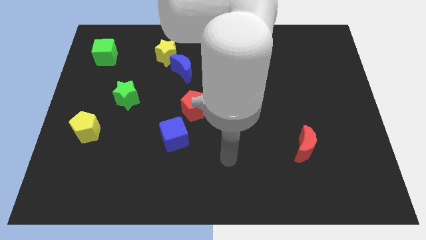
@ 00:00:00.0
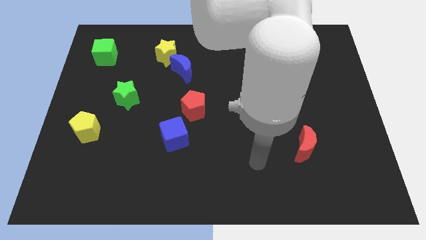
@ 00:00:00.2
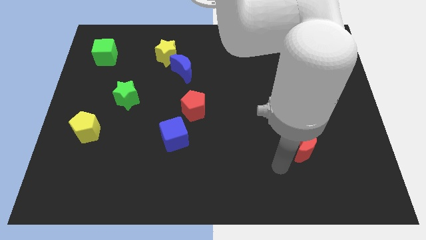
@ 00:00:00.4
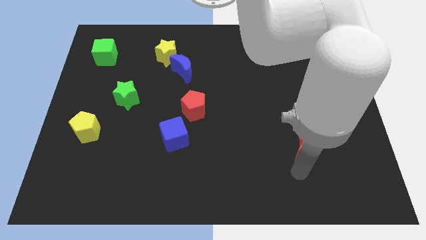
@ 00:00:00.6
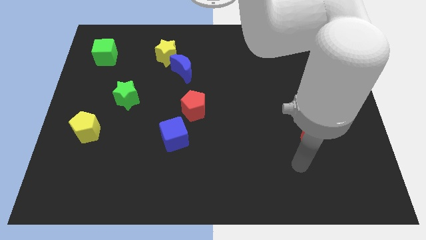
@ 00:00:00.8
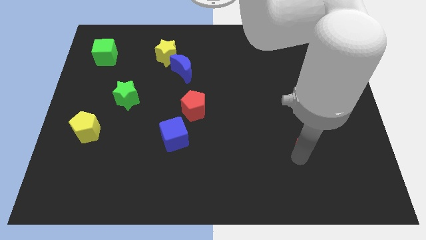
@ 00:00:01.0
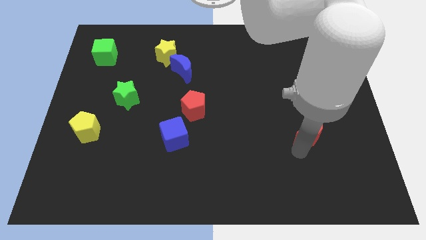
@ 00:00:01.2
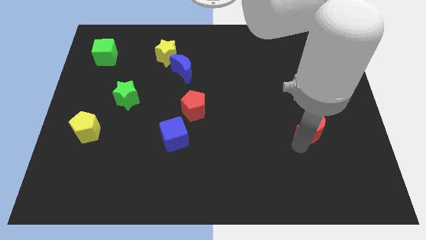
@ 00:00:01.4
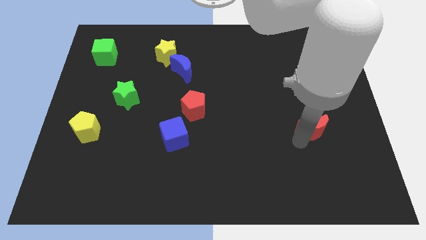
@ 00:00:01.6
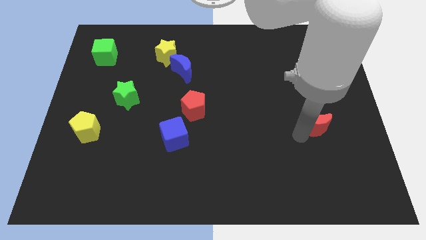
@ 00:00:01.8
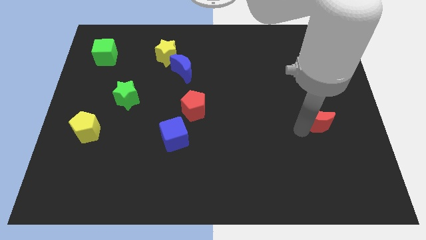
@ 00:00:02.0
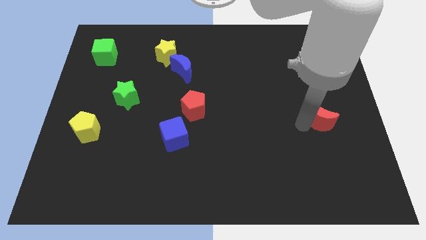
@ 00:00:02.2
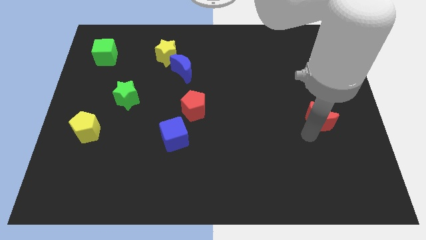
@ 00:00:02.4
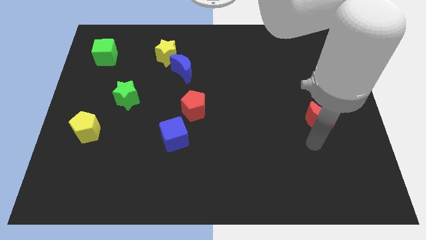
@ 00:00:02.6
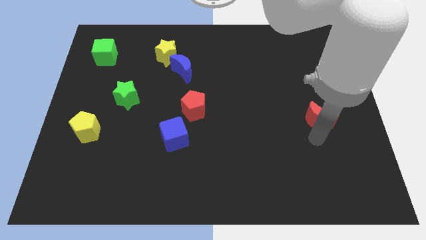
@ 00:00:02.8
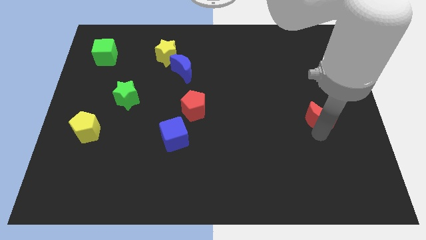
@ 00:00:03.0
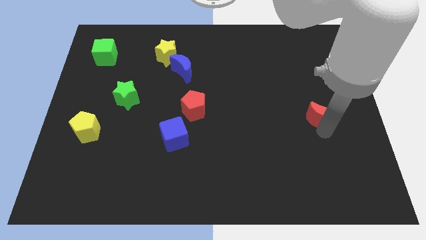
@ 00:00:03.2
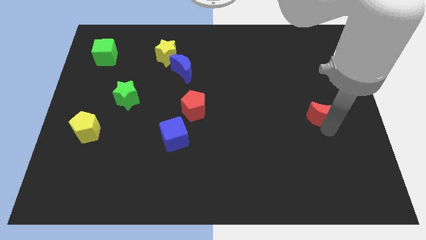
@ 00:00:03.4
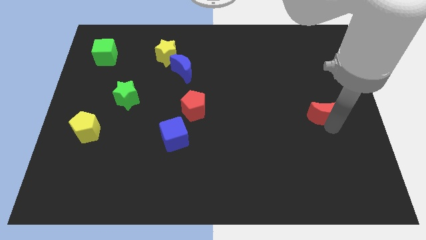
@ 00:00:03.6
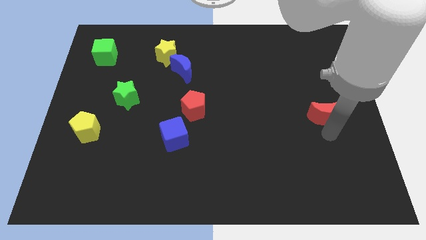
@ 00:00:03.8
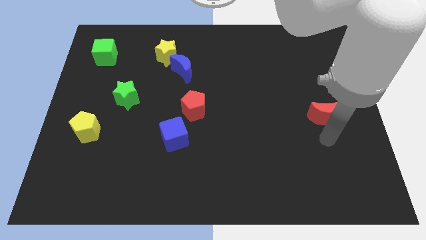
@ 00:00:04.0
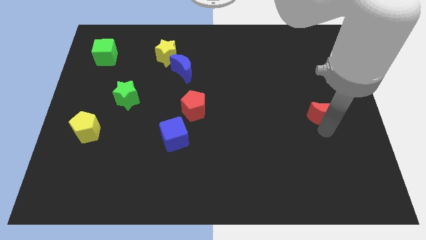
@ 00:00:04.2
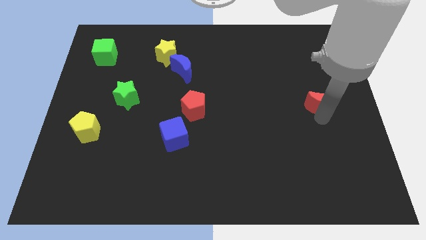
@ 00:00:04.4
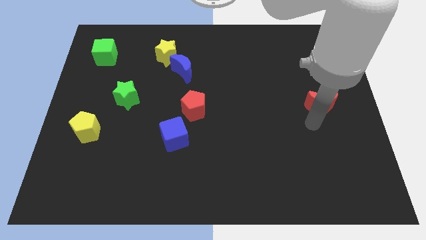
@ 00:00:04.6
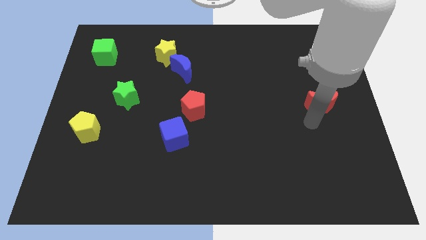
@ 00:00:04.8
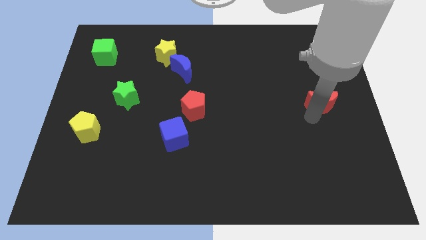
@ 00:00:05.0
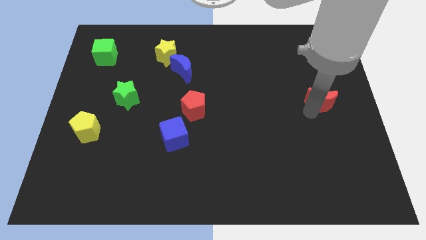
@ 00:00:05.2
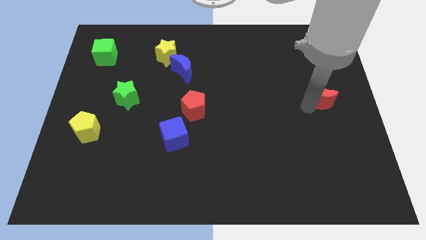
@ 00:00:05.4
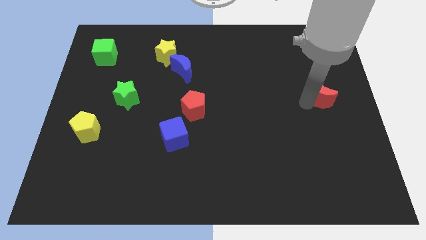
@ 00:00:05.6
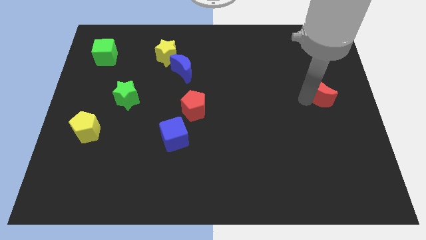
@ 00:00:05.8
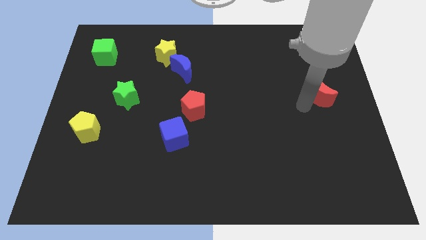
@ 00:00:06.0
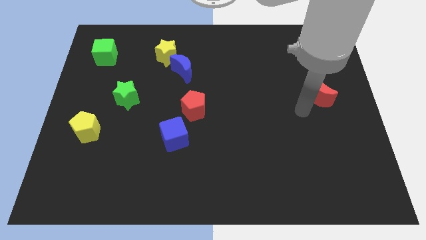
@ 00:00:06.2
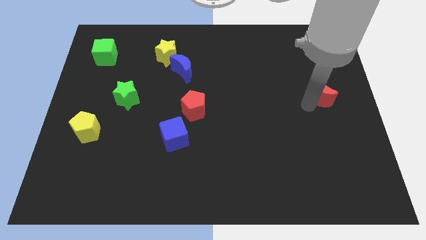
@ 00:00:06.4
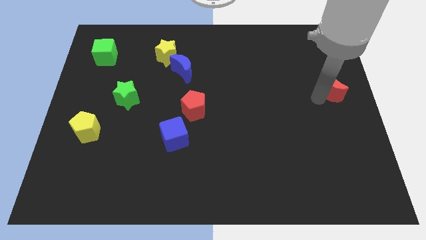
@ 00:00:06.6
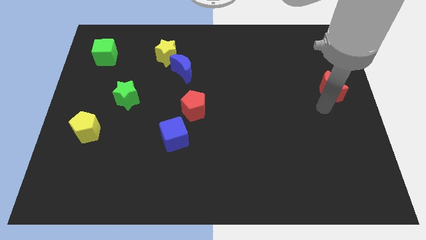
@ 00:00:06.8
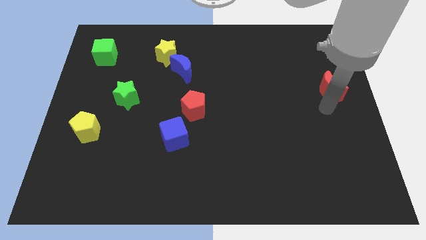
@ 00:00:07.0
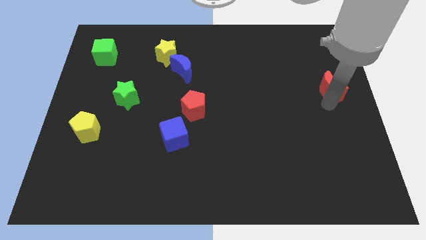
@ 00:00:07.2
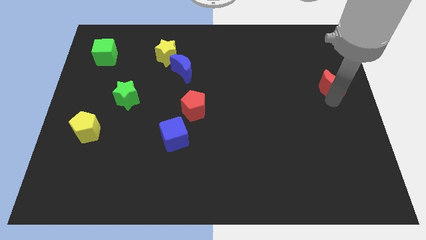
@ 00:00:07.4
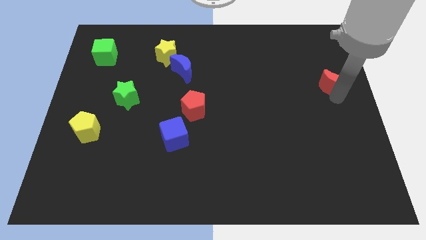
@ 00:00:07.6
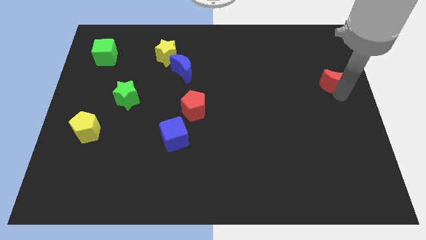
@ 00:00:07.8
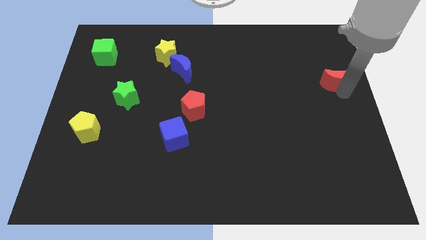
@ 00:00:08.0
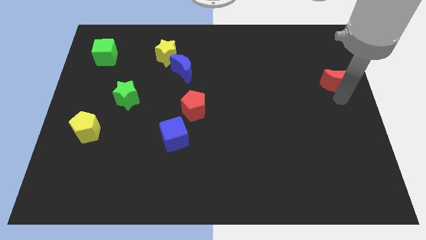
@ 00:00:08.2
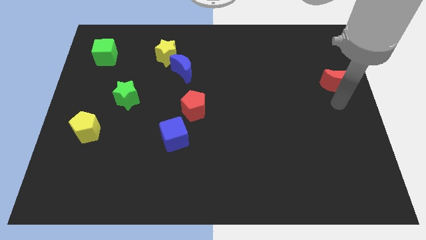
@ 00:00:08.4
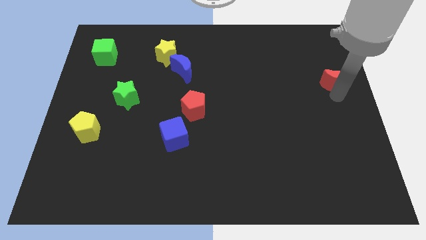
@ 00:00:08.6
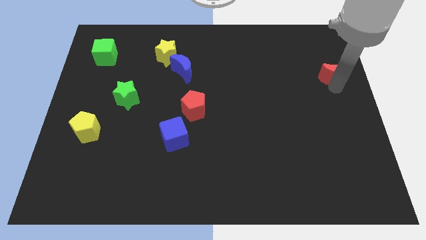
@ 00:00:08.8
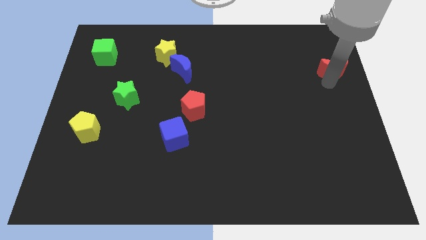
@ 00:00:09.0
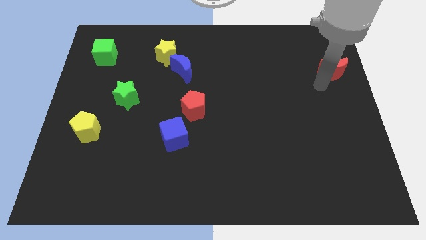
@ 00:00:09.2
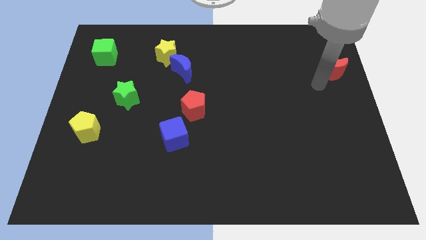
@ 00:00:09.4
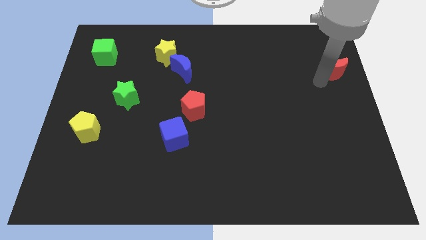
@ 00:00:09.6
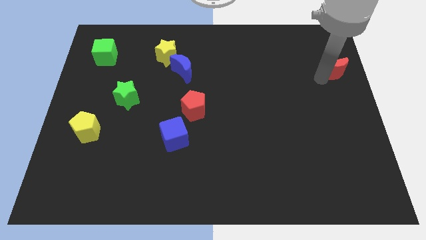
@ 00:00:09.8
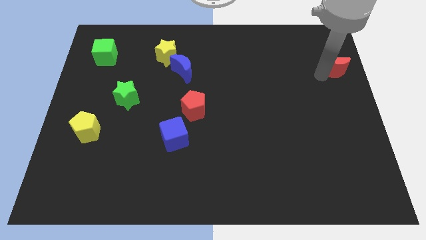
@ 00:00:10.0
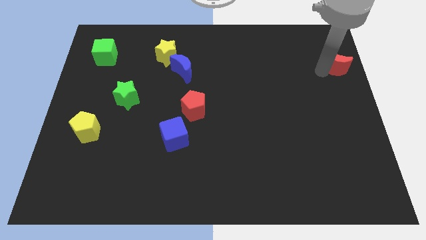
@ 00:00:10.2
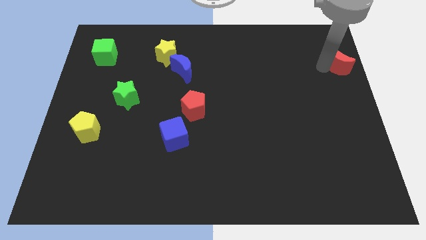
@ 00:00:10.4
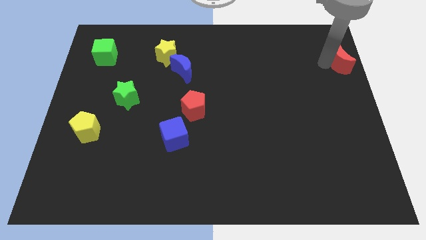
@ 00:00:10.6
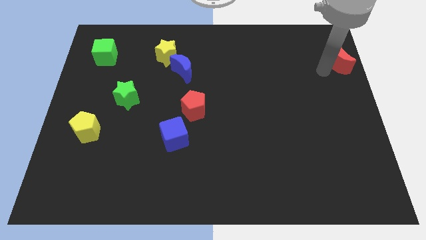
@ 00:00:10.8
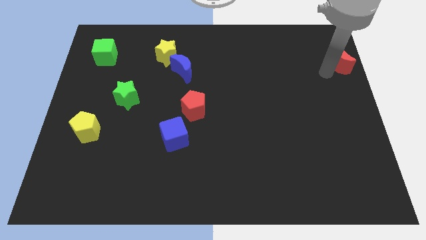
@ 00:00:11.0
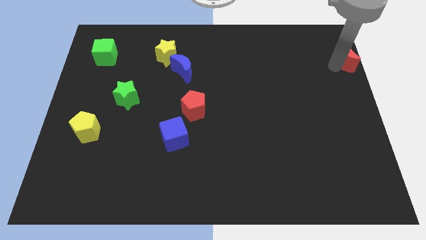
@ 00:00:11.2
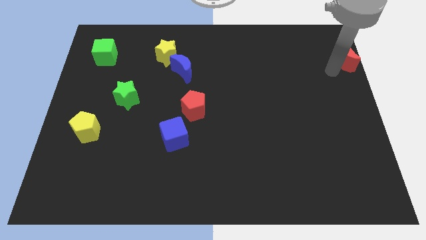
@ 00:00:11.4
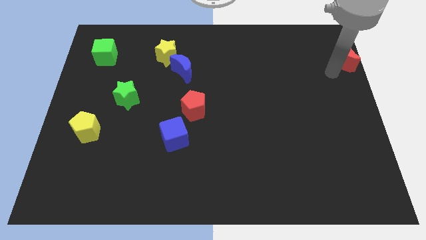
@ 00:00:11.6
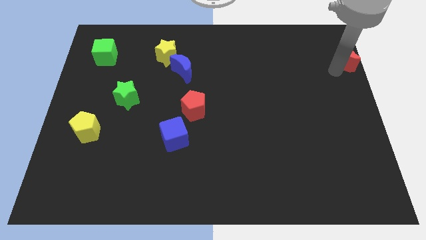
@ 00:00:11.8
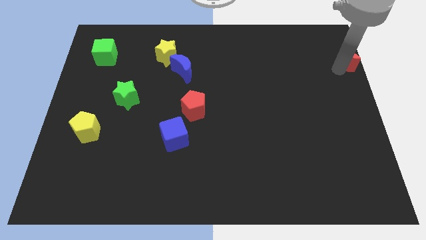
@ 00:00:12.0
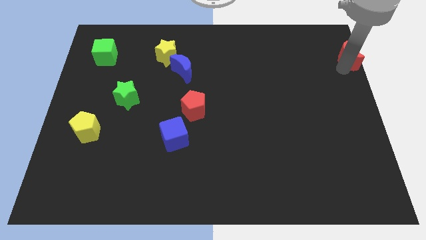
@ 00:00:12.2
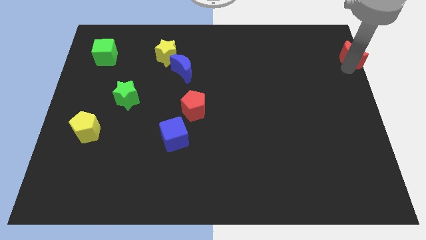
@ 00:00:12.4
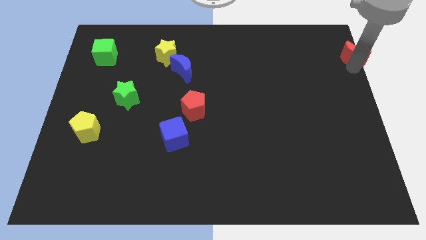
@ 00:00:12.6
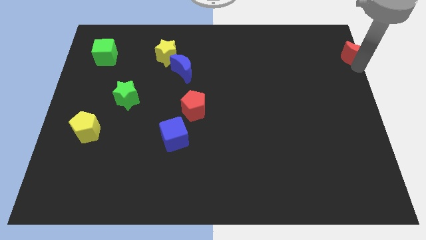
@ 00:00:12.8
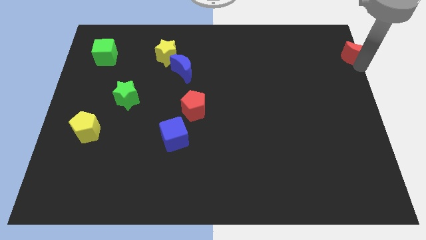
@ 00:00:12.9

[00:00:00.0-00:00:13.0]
move the red moon to the top right corner
